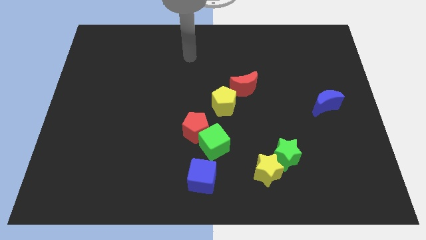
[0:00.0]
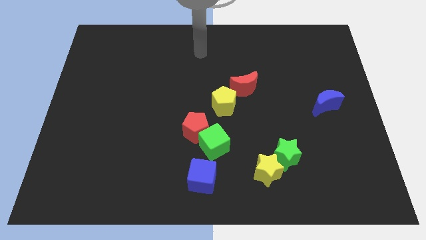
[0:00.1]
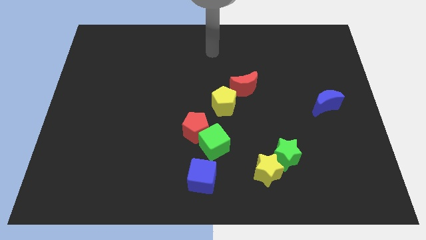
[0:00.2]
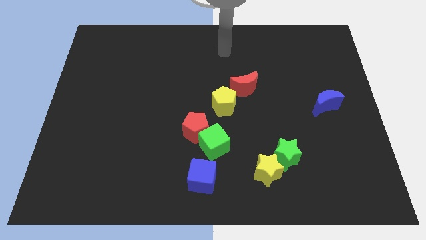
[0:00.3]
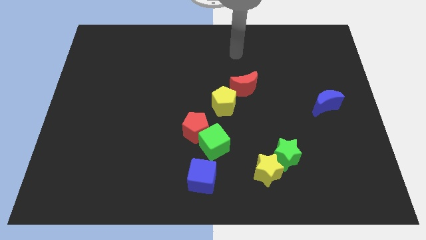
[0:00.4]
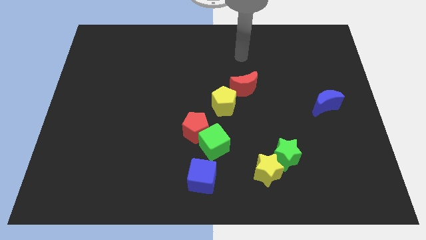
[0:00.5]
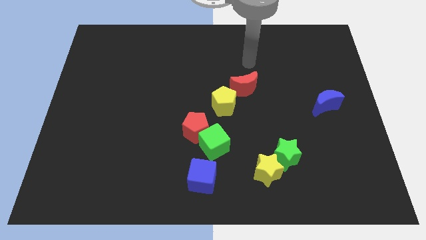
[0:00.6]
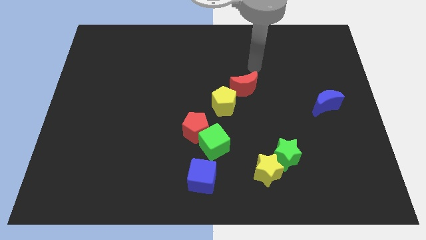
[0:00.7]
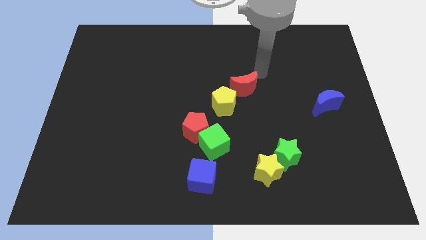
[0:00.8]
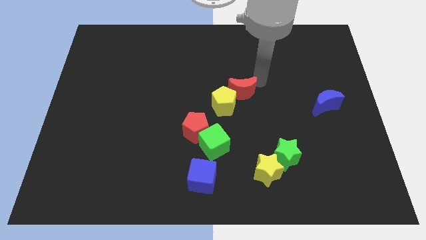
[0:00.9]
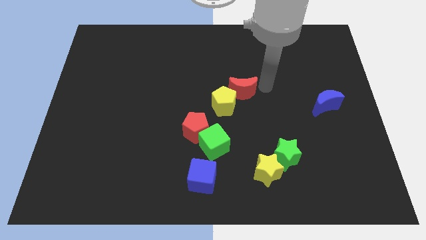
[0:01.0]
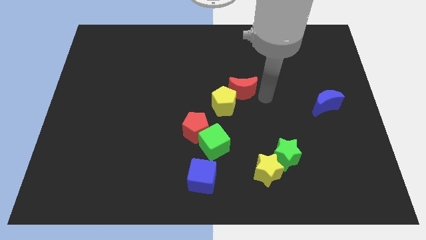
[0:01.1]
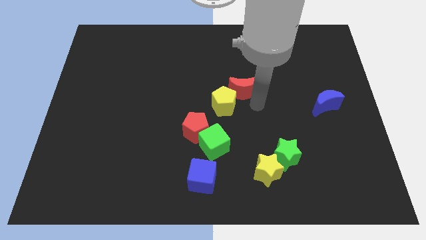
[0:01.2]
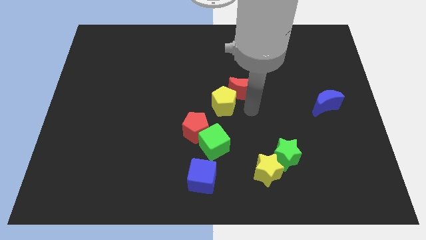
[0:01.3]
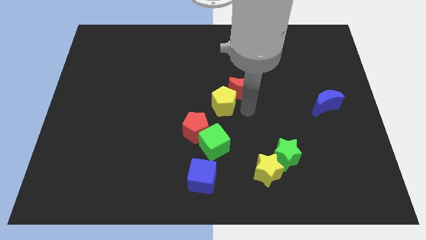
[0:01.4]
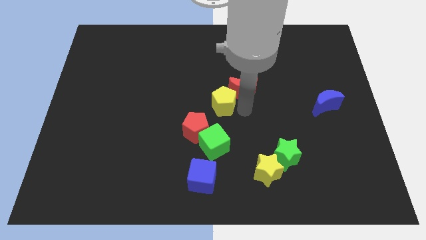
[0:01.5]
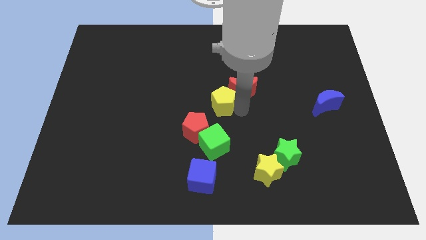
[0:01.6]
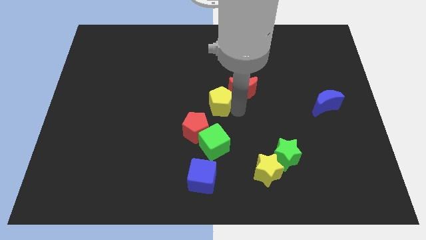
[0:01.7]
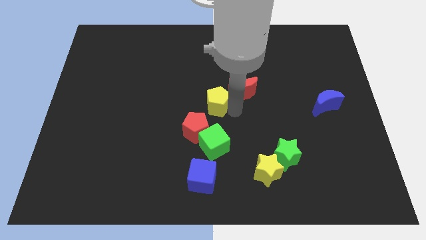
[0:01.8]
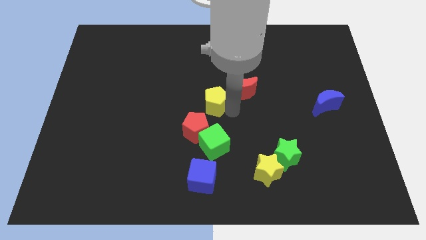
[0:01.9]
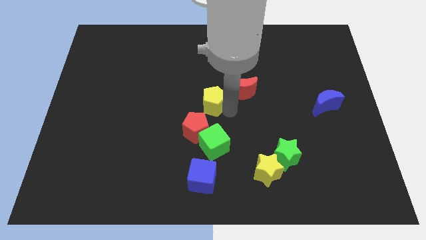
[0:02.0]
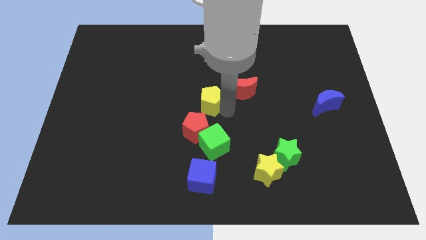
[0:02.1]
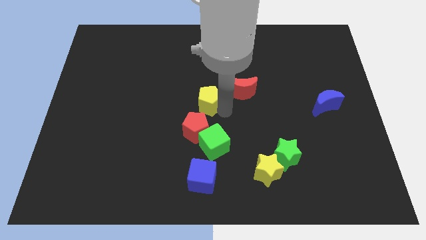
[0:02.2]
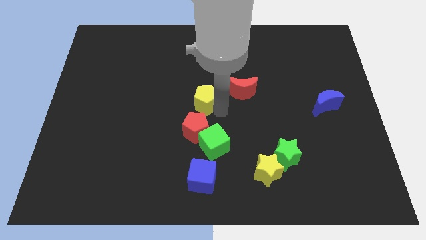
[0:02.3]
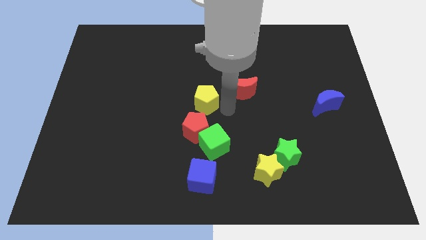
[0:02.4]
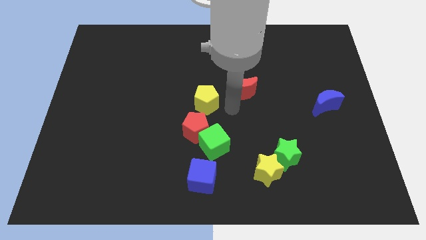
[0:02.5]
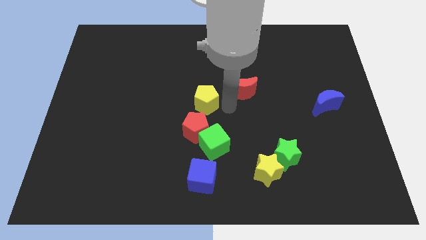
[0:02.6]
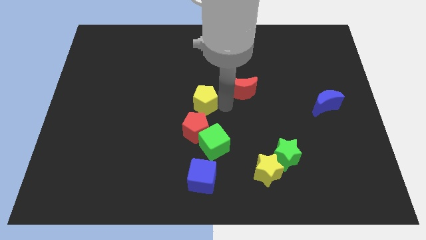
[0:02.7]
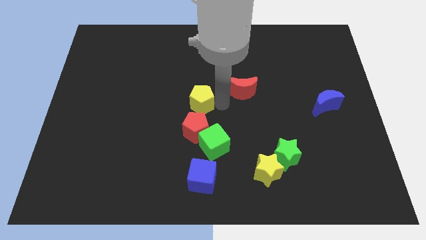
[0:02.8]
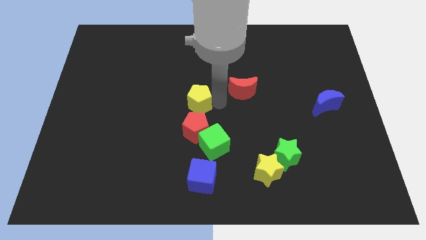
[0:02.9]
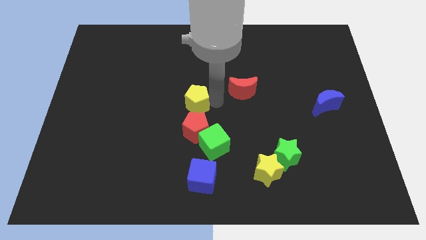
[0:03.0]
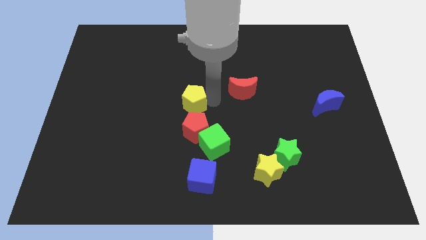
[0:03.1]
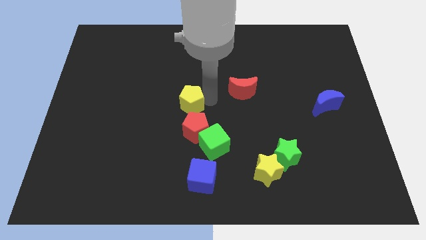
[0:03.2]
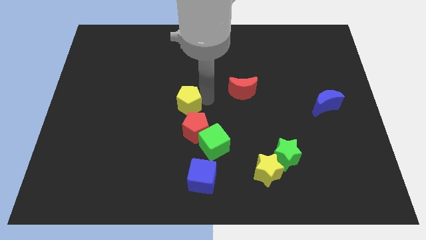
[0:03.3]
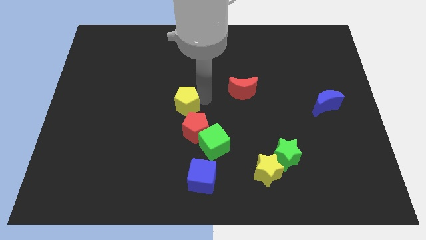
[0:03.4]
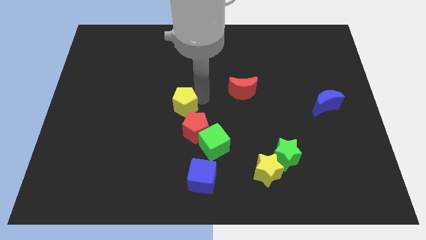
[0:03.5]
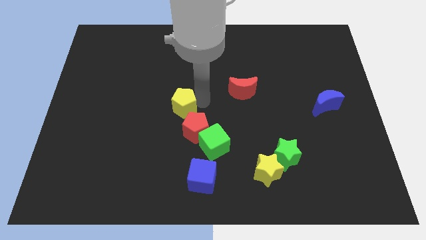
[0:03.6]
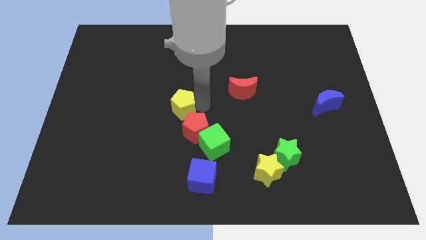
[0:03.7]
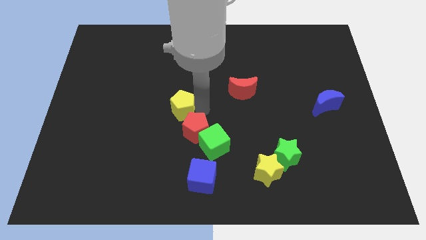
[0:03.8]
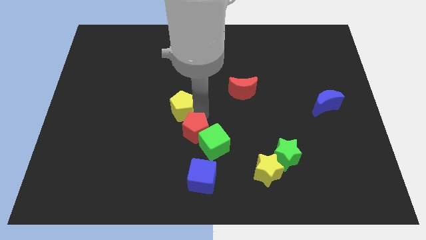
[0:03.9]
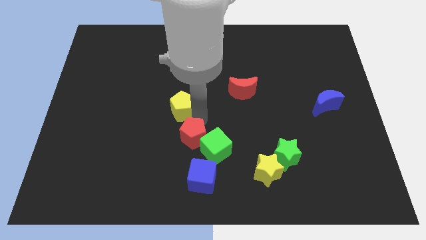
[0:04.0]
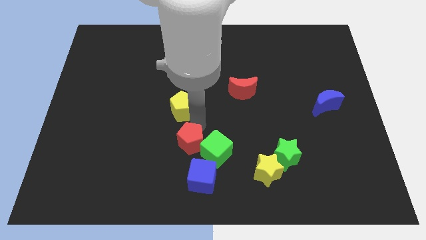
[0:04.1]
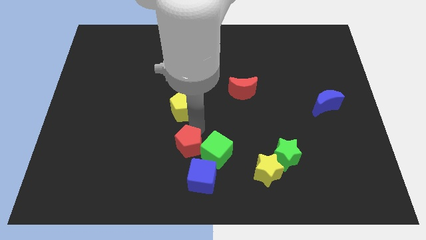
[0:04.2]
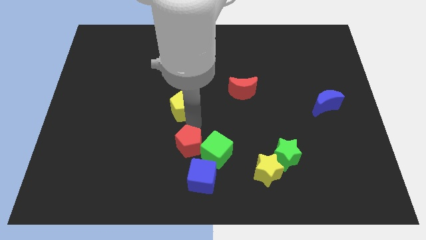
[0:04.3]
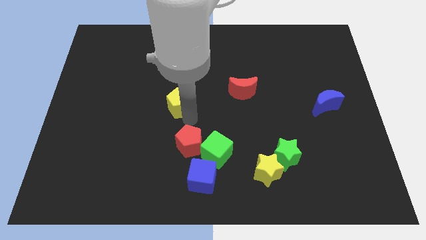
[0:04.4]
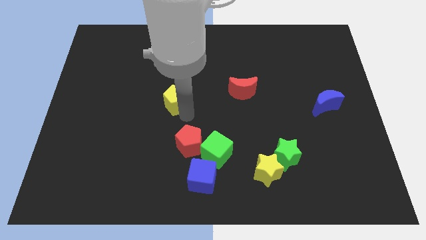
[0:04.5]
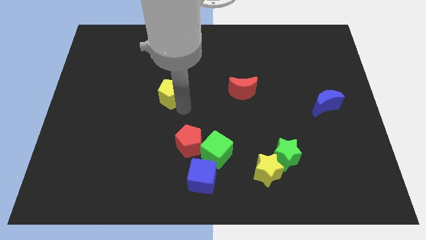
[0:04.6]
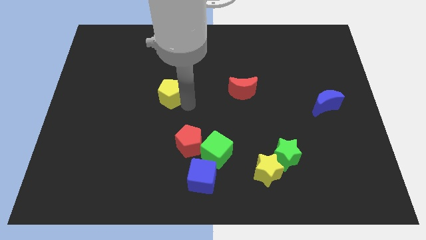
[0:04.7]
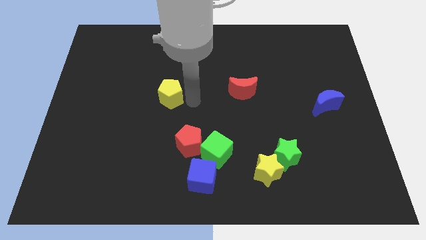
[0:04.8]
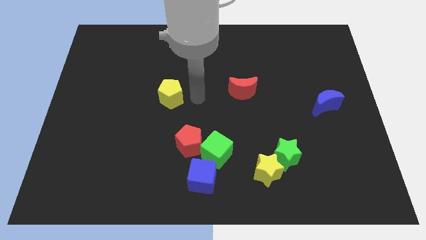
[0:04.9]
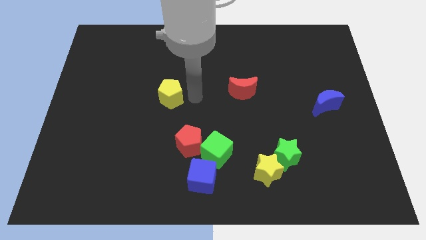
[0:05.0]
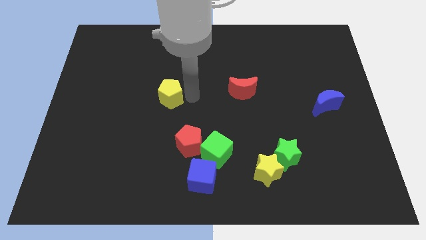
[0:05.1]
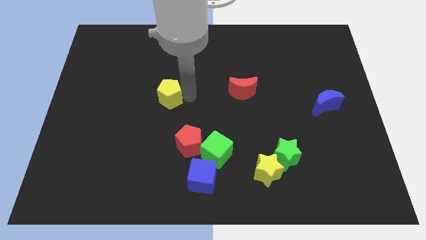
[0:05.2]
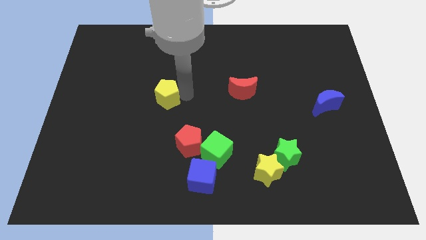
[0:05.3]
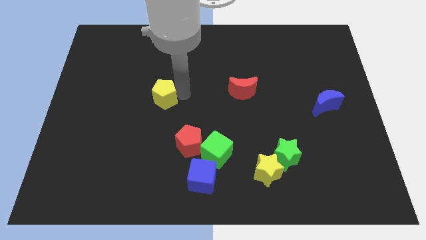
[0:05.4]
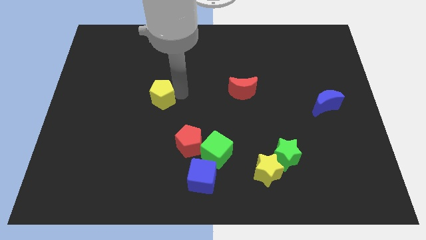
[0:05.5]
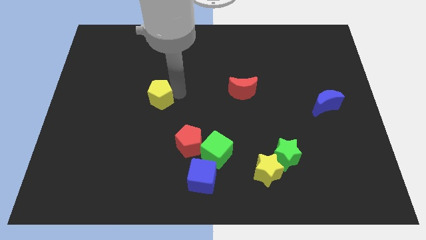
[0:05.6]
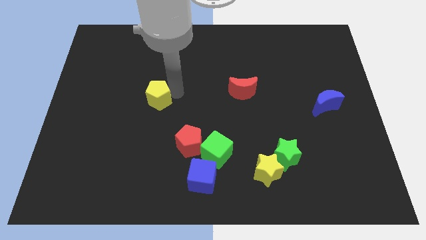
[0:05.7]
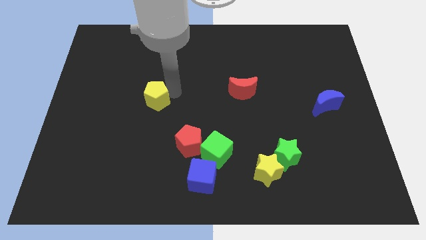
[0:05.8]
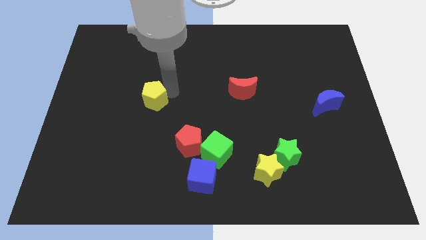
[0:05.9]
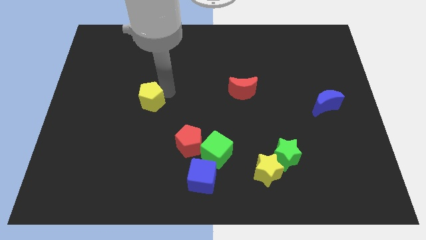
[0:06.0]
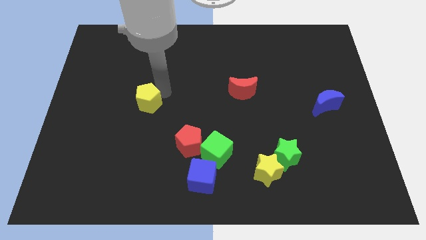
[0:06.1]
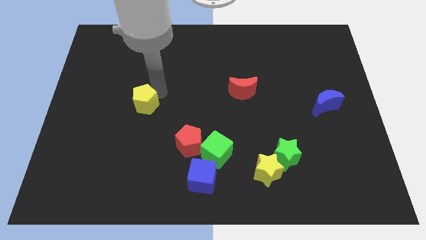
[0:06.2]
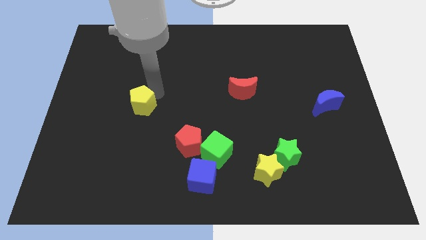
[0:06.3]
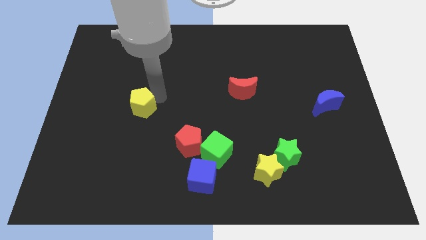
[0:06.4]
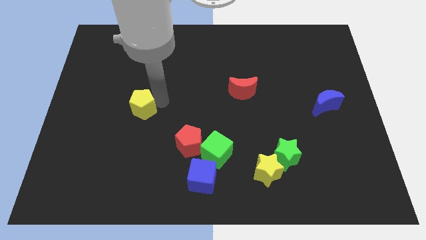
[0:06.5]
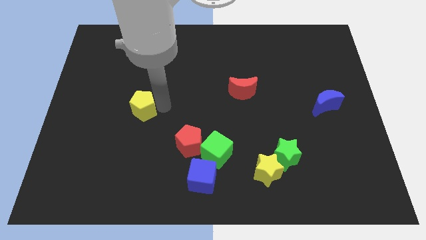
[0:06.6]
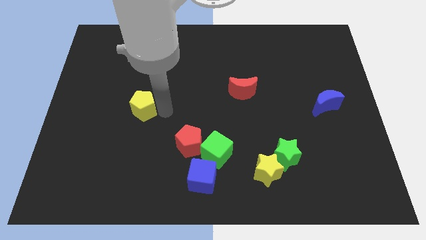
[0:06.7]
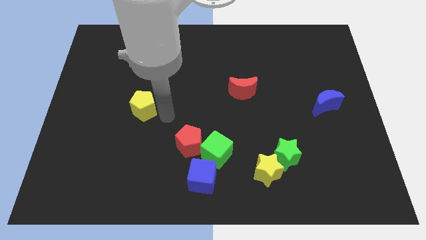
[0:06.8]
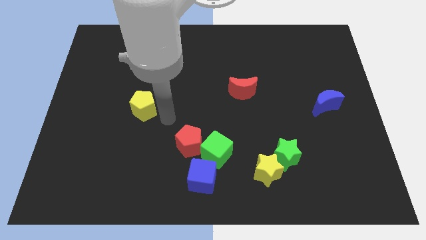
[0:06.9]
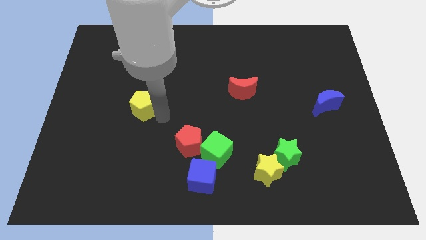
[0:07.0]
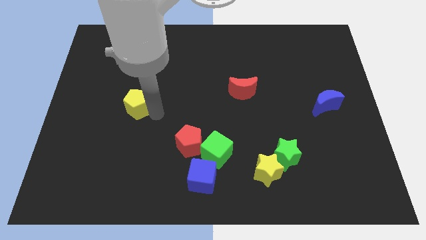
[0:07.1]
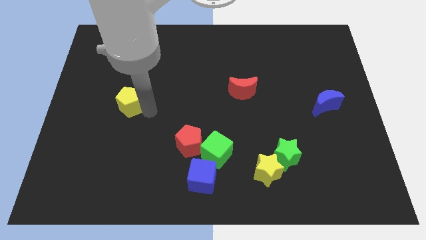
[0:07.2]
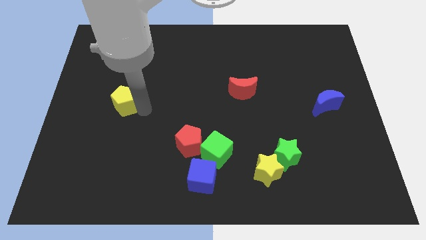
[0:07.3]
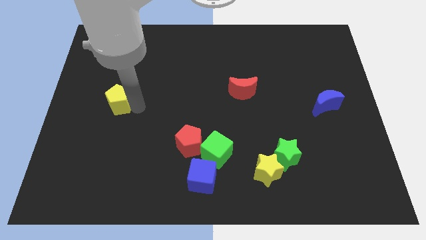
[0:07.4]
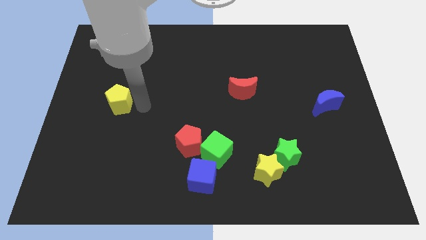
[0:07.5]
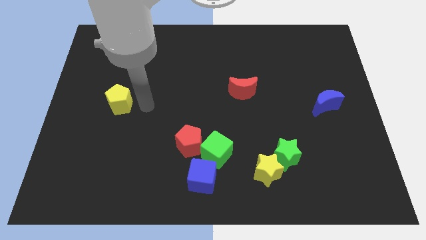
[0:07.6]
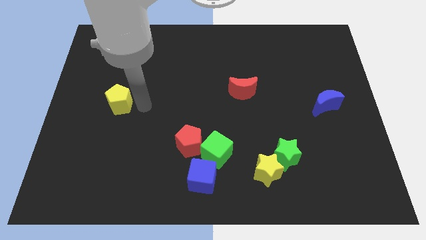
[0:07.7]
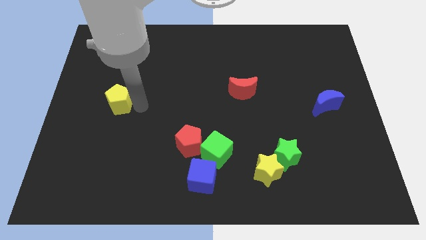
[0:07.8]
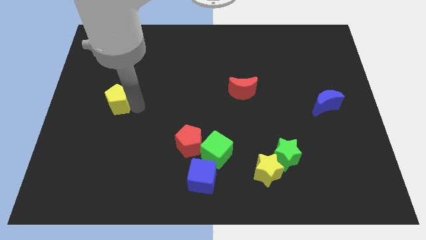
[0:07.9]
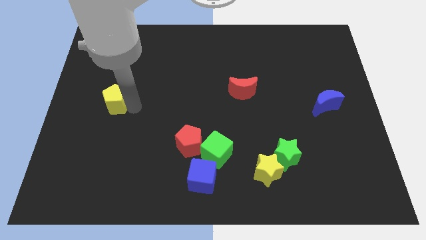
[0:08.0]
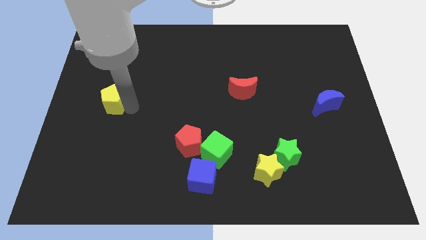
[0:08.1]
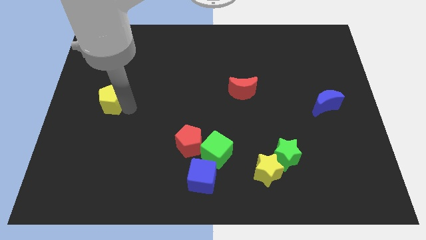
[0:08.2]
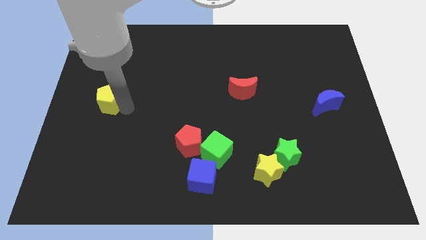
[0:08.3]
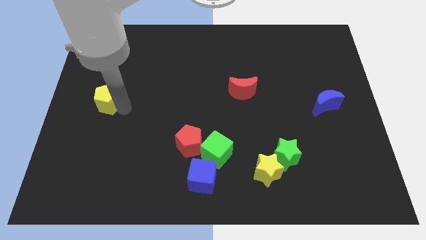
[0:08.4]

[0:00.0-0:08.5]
move the yellow pentagon to the center left
